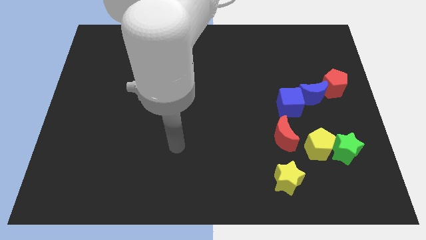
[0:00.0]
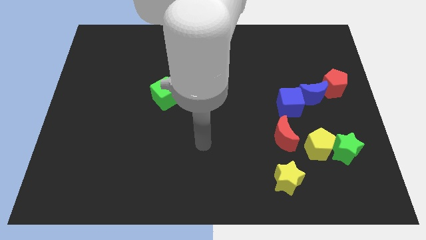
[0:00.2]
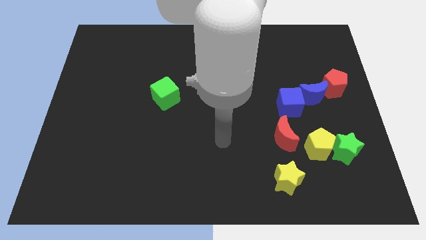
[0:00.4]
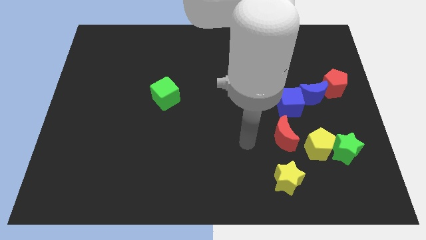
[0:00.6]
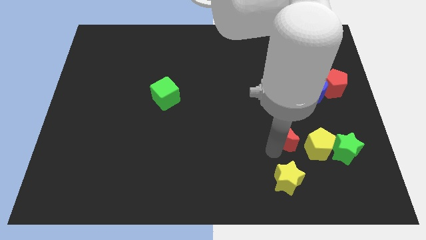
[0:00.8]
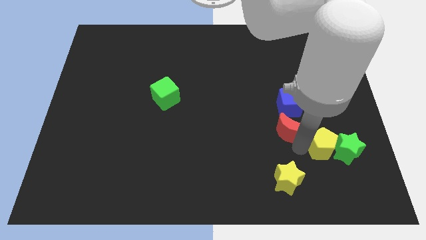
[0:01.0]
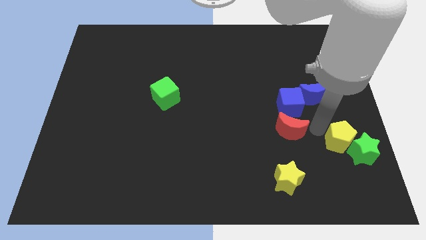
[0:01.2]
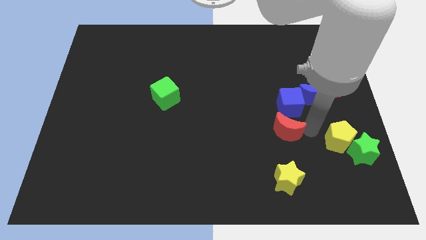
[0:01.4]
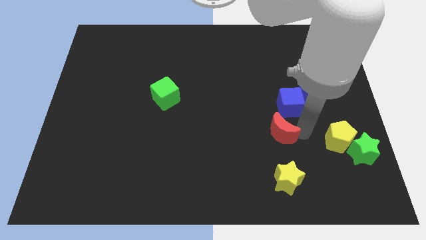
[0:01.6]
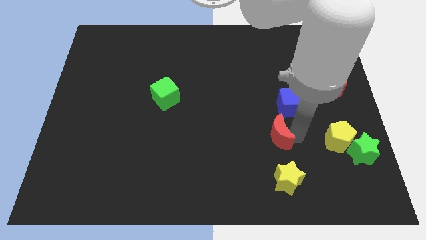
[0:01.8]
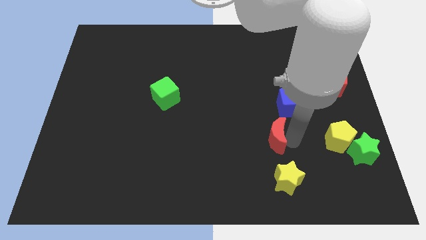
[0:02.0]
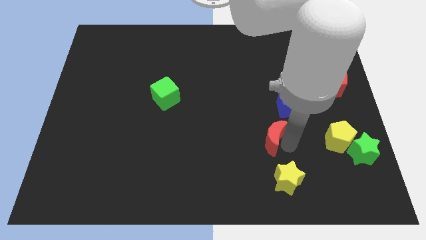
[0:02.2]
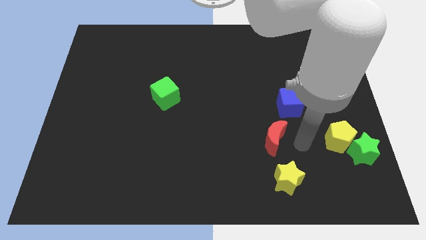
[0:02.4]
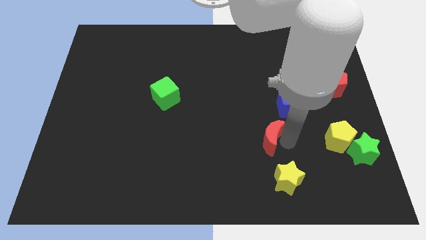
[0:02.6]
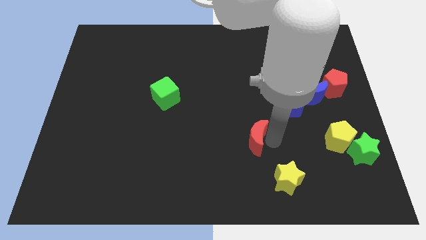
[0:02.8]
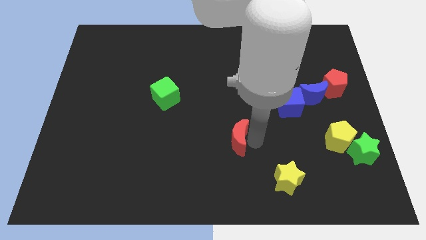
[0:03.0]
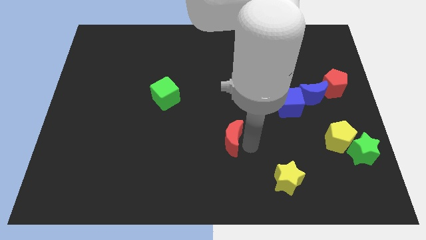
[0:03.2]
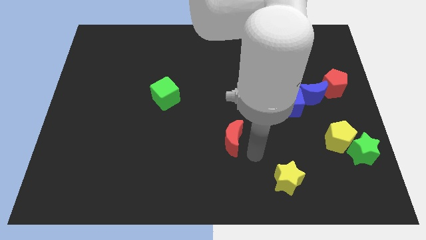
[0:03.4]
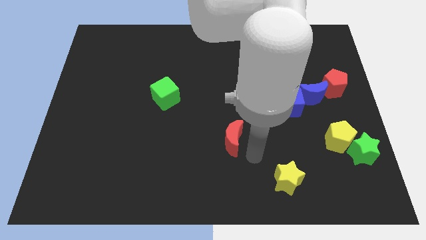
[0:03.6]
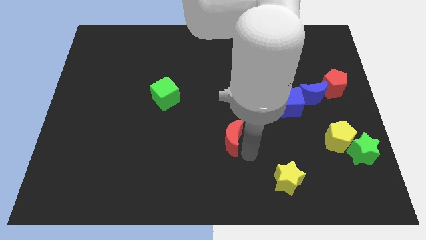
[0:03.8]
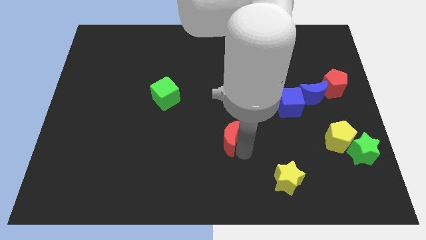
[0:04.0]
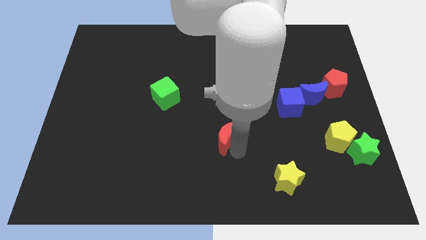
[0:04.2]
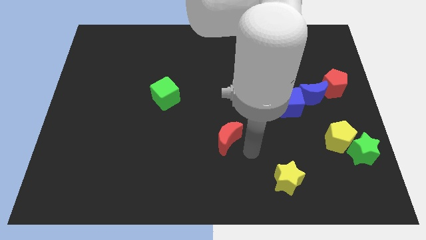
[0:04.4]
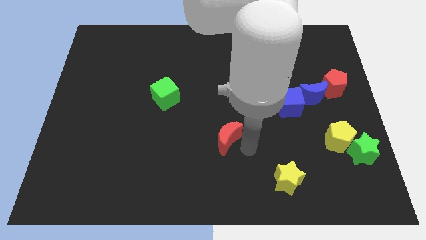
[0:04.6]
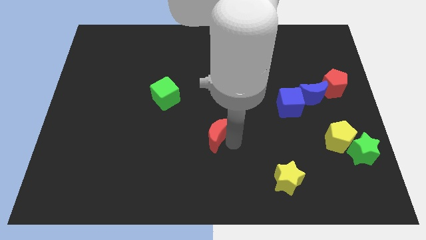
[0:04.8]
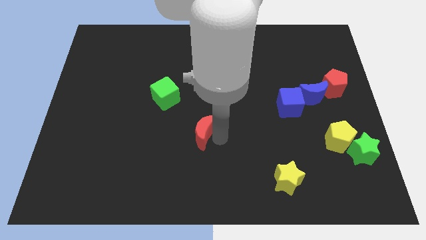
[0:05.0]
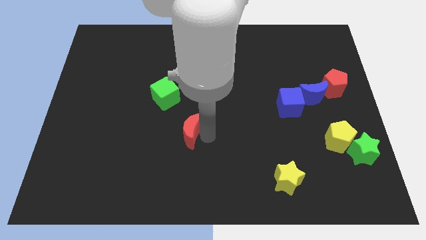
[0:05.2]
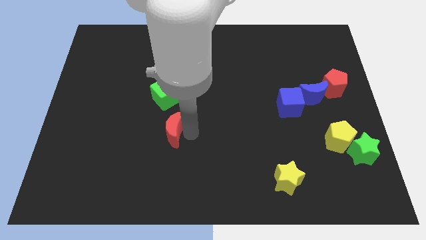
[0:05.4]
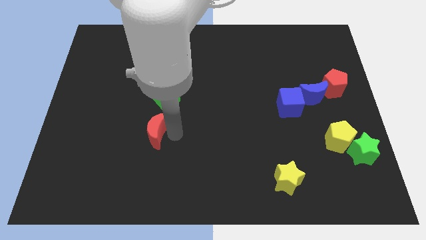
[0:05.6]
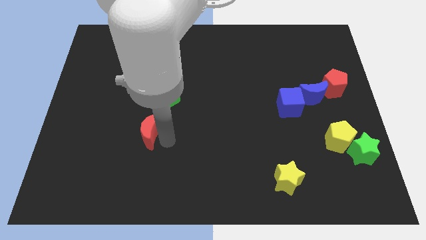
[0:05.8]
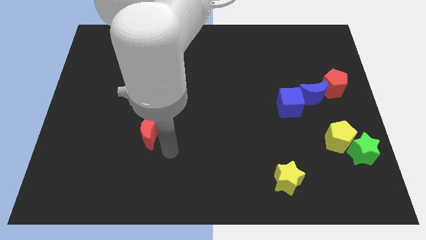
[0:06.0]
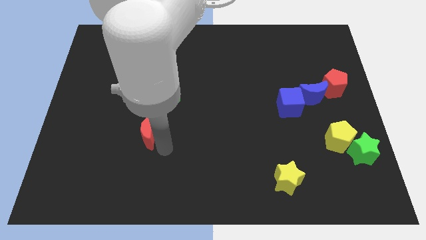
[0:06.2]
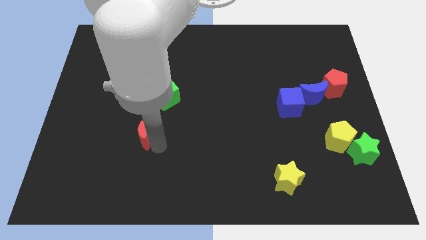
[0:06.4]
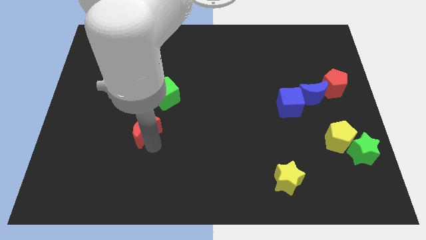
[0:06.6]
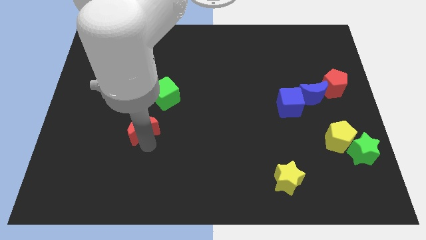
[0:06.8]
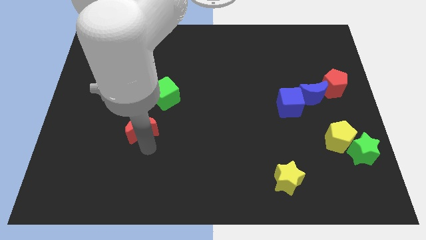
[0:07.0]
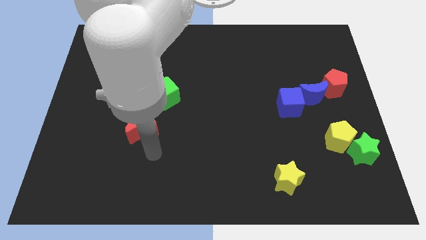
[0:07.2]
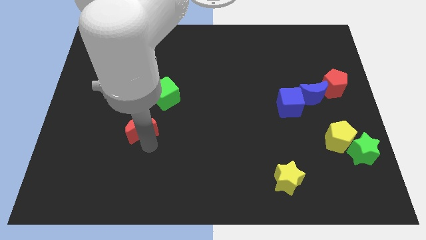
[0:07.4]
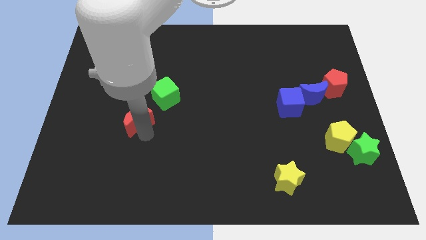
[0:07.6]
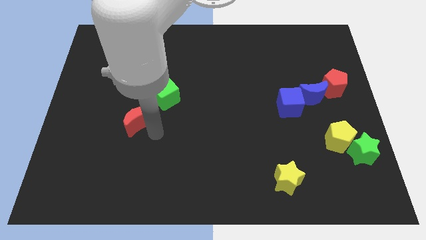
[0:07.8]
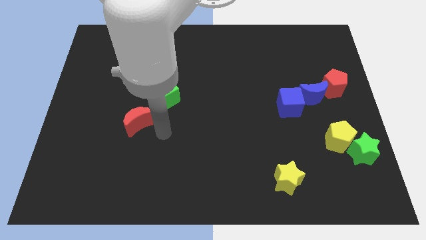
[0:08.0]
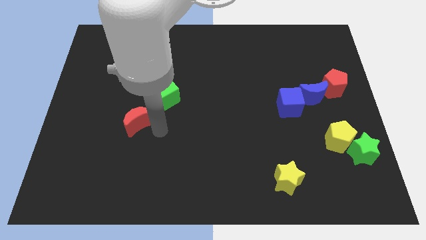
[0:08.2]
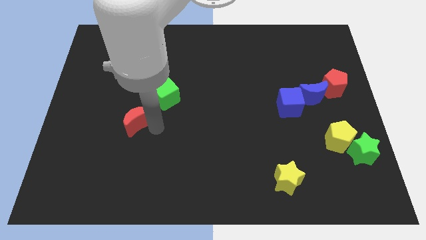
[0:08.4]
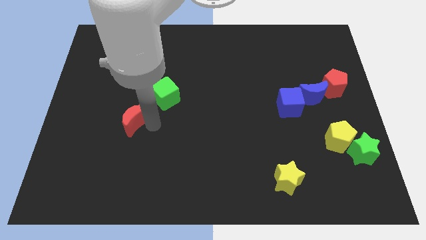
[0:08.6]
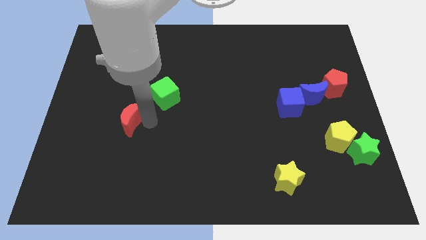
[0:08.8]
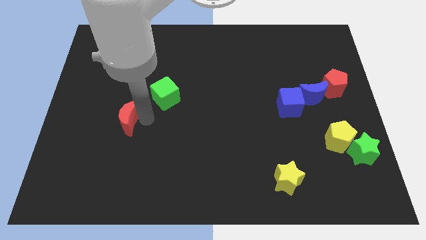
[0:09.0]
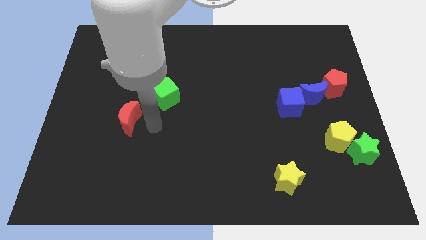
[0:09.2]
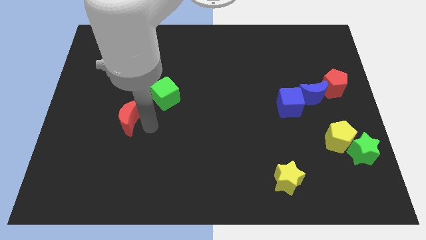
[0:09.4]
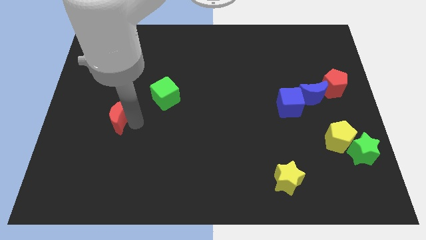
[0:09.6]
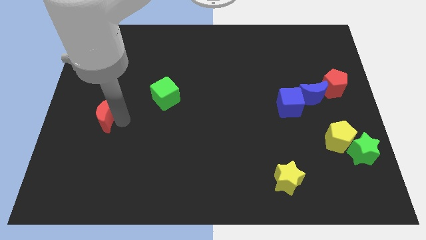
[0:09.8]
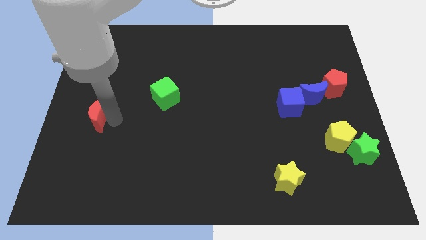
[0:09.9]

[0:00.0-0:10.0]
push the red moon to the left side of the board

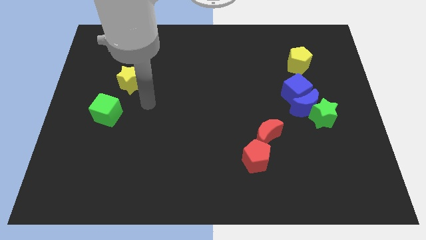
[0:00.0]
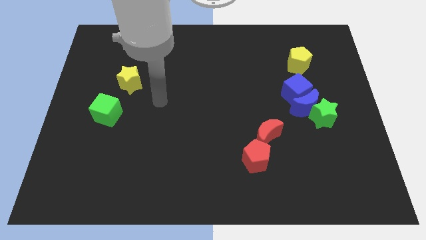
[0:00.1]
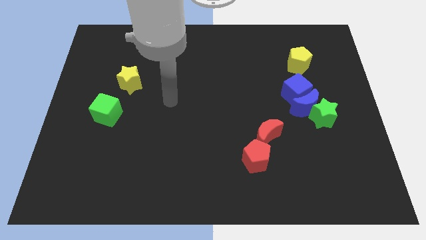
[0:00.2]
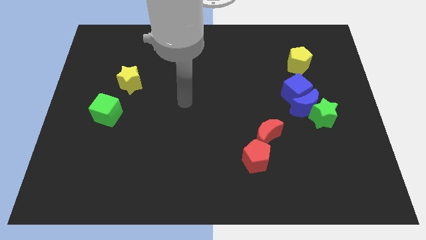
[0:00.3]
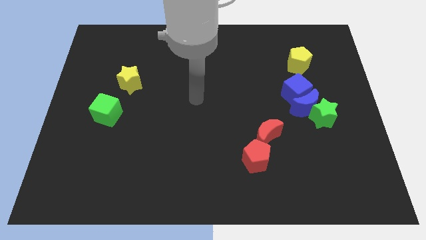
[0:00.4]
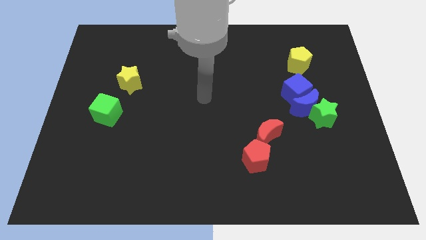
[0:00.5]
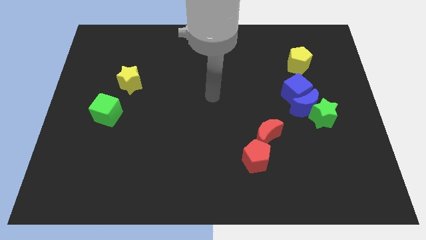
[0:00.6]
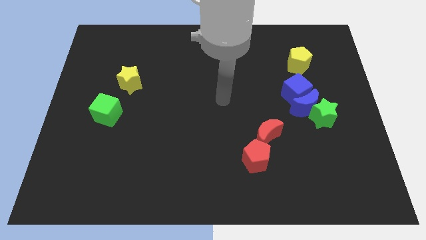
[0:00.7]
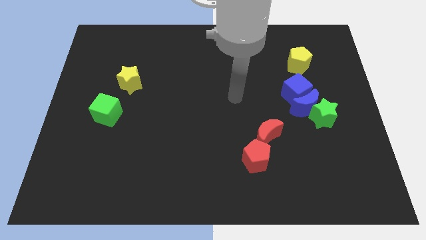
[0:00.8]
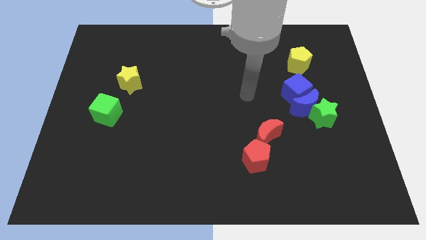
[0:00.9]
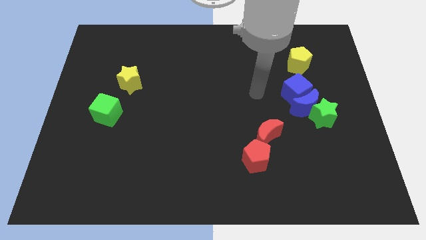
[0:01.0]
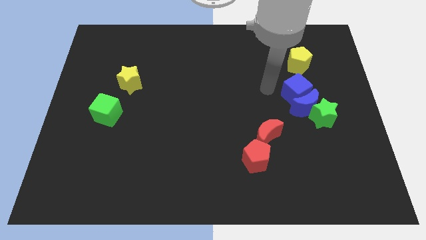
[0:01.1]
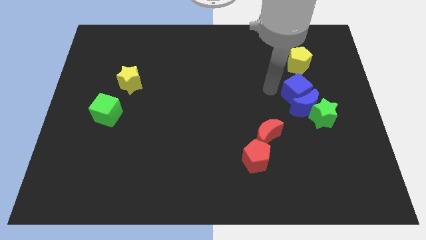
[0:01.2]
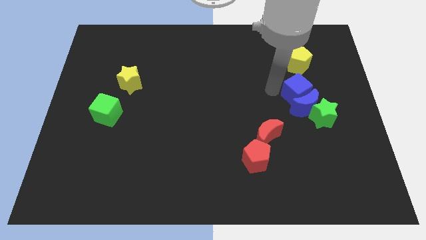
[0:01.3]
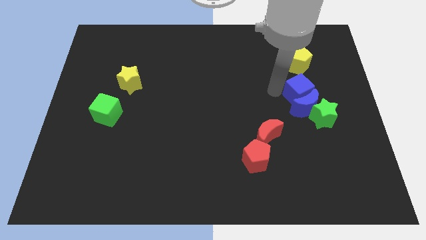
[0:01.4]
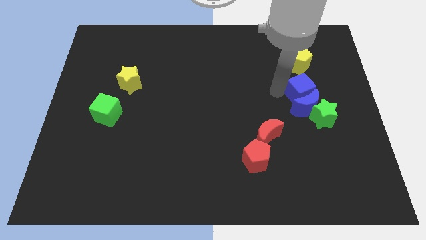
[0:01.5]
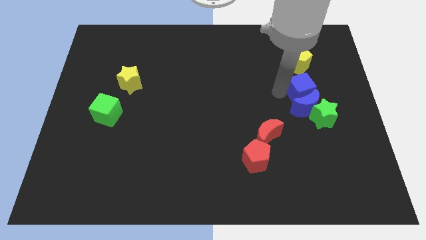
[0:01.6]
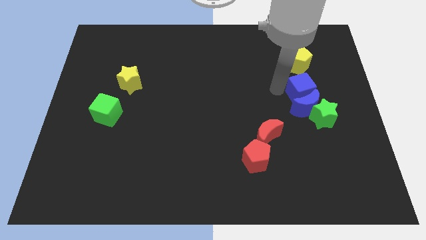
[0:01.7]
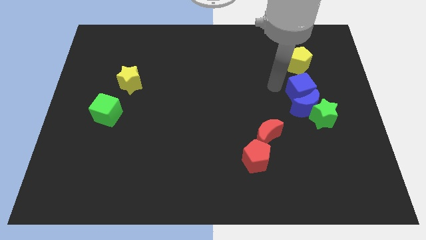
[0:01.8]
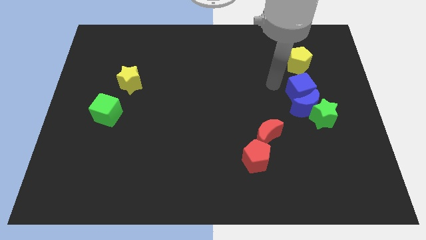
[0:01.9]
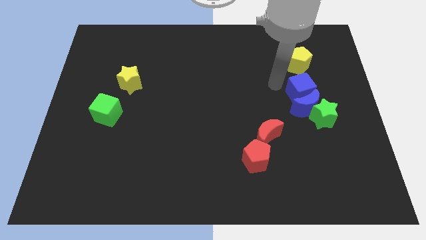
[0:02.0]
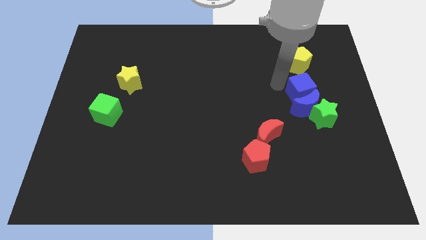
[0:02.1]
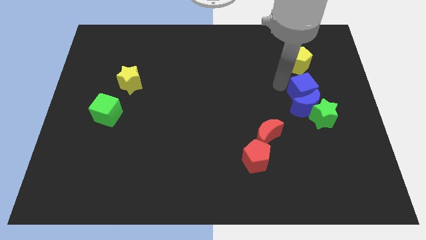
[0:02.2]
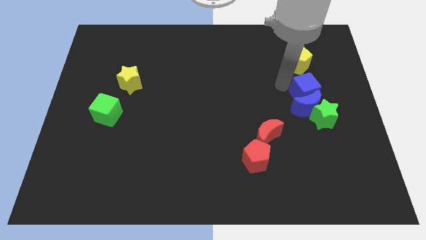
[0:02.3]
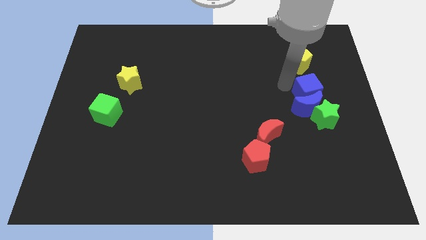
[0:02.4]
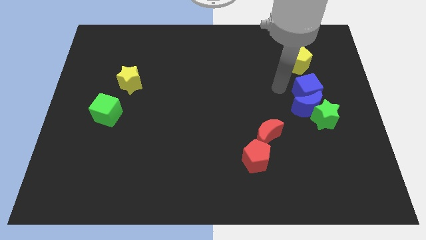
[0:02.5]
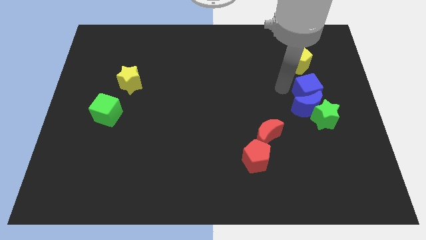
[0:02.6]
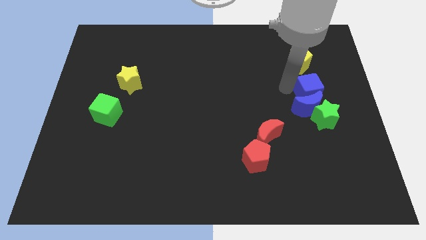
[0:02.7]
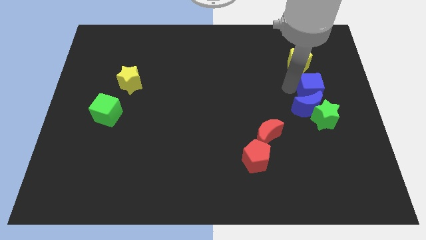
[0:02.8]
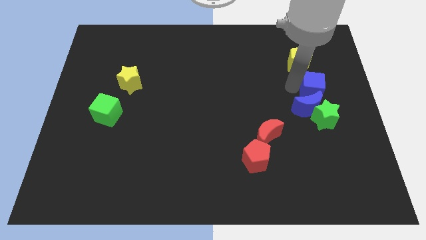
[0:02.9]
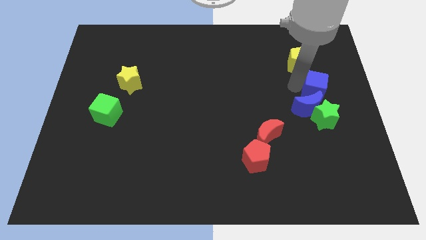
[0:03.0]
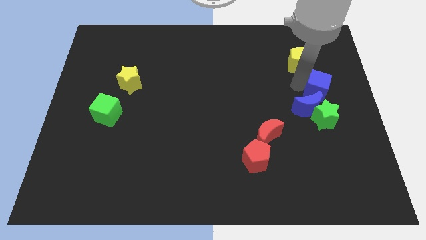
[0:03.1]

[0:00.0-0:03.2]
move the blue cube to the center right
